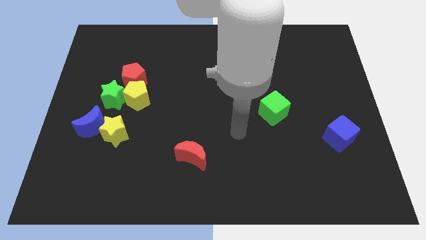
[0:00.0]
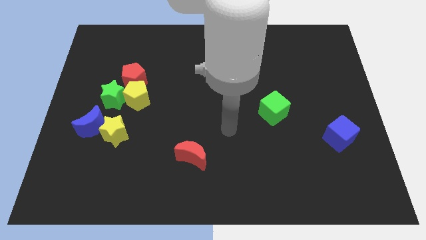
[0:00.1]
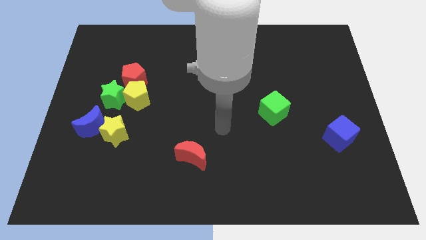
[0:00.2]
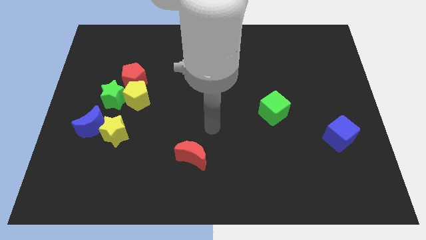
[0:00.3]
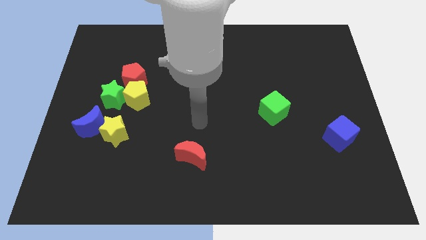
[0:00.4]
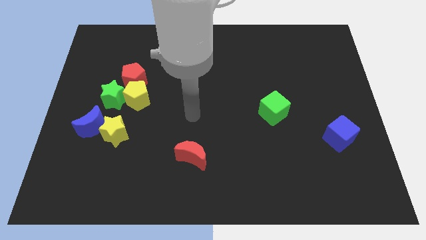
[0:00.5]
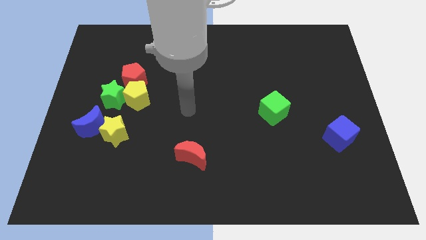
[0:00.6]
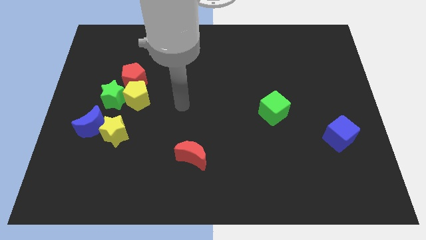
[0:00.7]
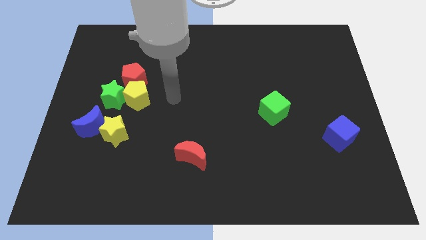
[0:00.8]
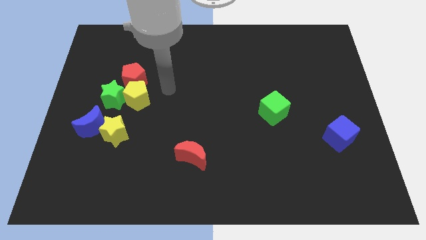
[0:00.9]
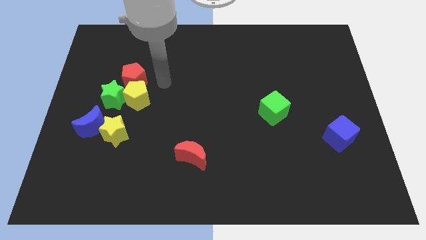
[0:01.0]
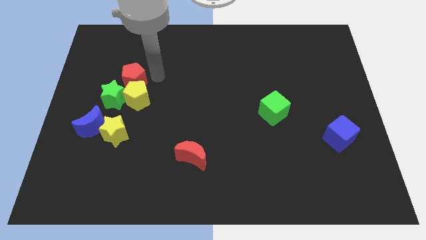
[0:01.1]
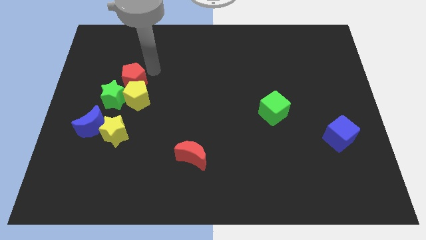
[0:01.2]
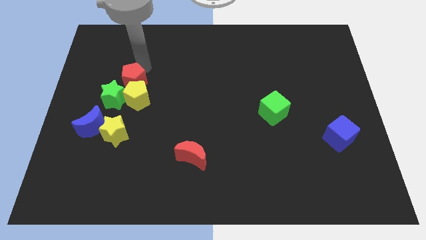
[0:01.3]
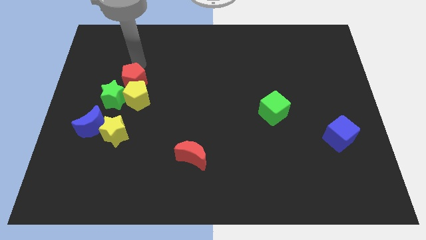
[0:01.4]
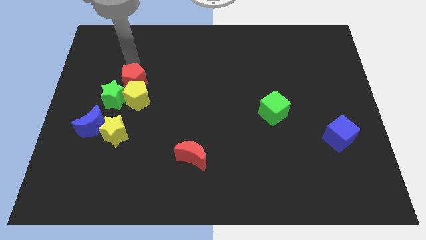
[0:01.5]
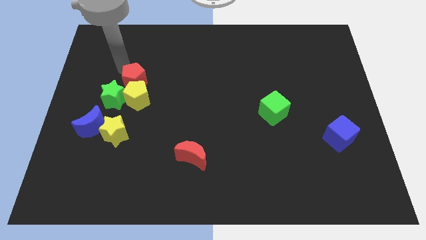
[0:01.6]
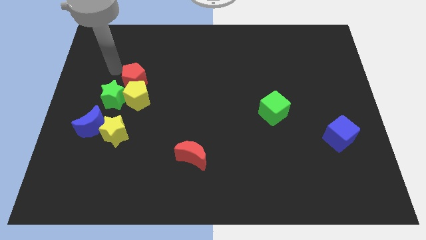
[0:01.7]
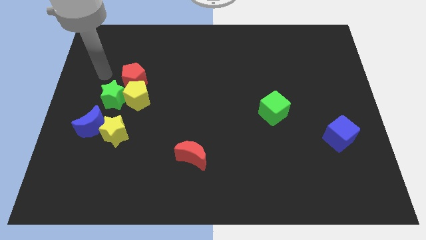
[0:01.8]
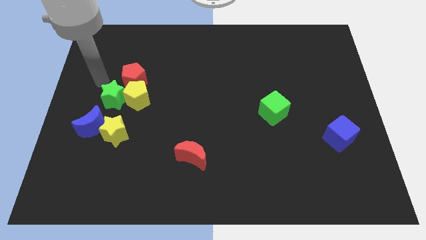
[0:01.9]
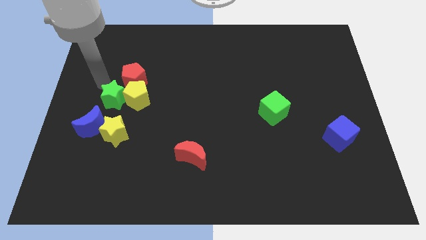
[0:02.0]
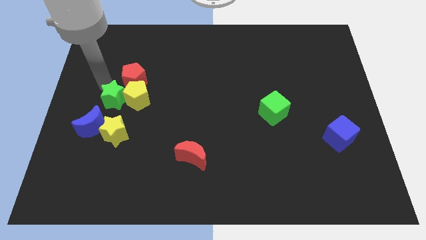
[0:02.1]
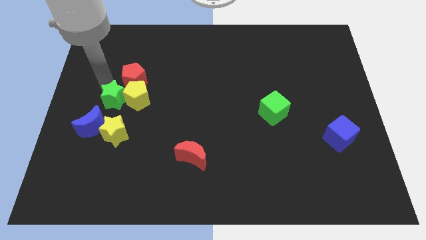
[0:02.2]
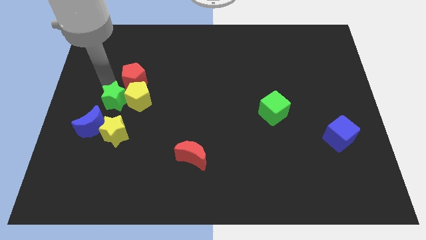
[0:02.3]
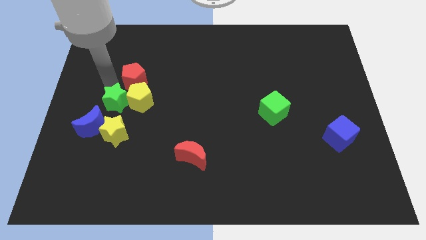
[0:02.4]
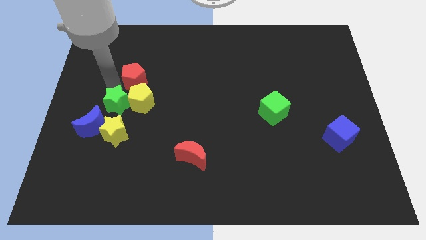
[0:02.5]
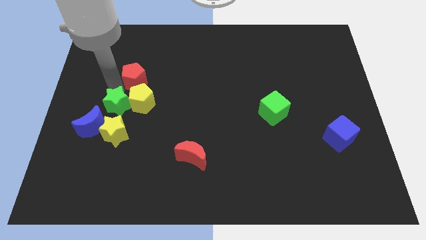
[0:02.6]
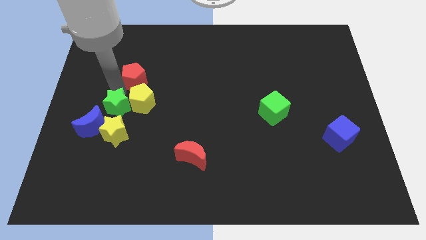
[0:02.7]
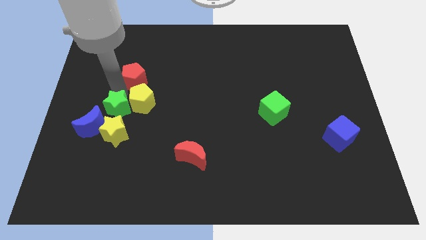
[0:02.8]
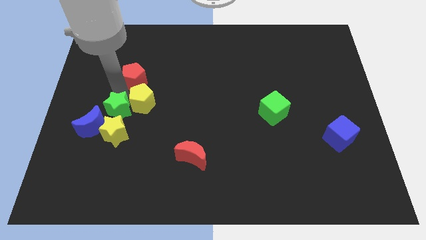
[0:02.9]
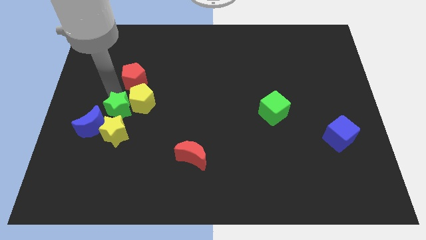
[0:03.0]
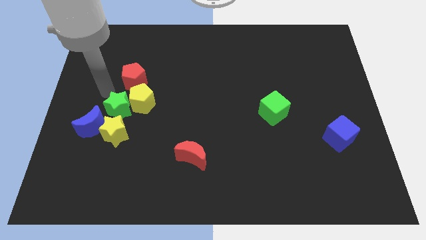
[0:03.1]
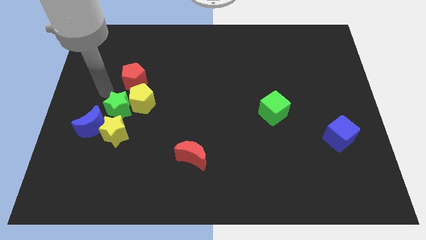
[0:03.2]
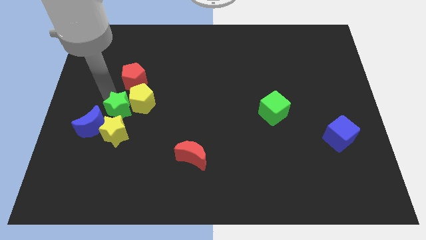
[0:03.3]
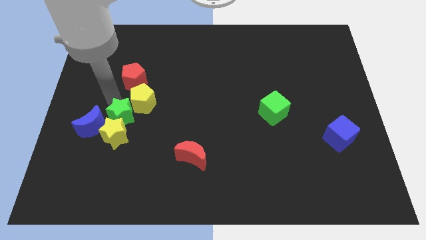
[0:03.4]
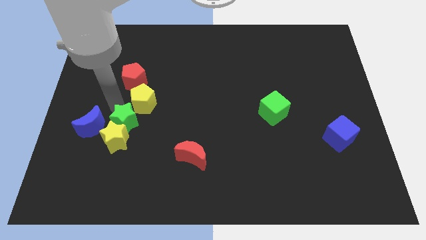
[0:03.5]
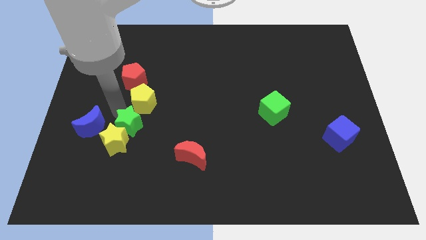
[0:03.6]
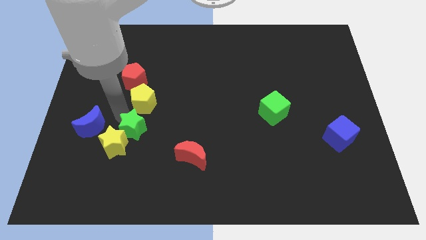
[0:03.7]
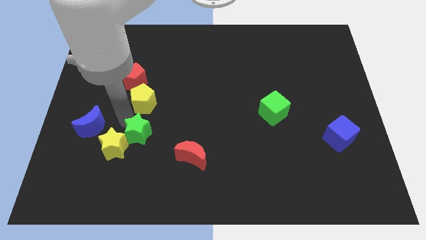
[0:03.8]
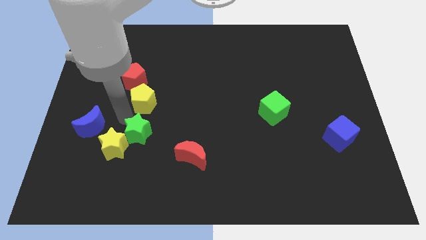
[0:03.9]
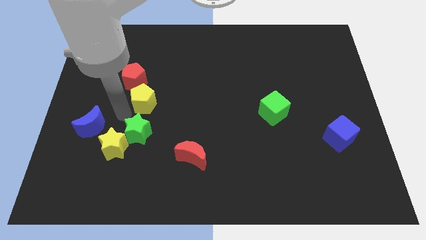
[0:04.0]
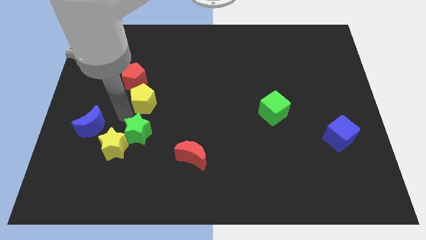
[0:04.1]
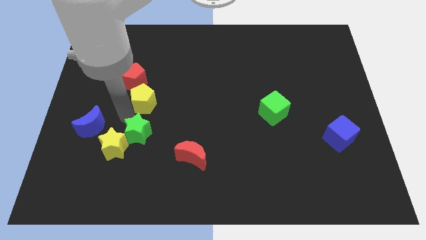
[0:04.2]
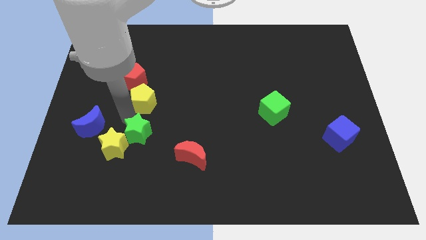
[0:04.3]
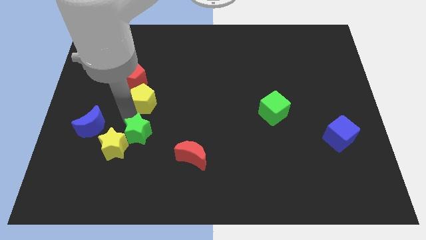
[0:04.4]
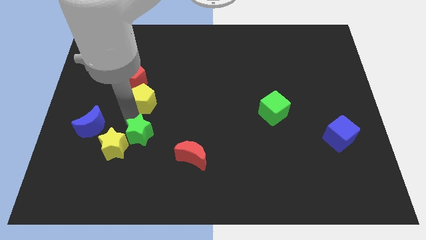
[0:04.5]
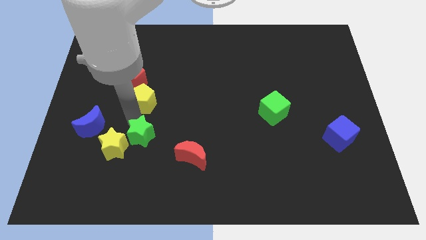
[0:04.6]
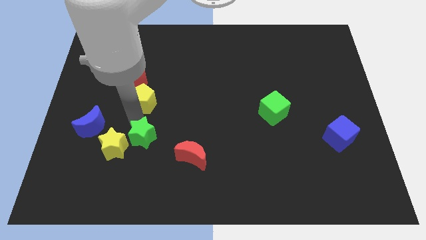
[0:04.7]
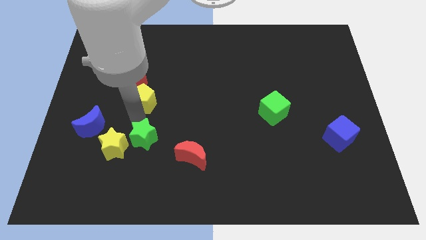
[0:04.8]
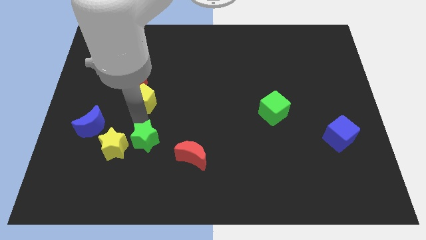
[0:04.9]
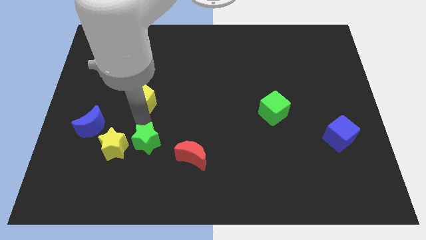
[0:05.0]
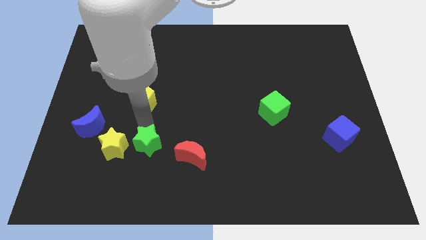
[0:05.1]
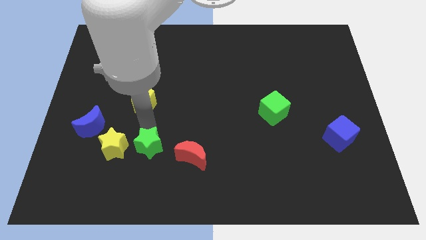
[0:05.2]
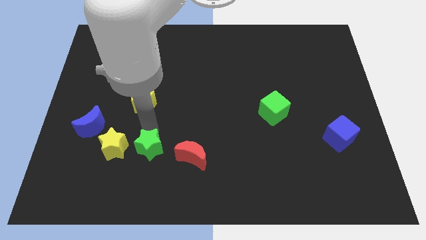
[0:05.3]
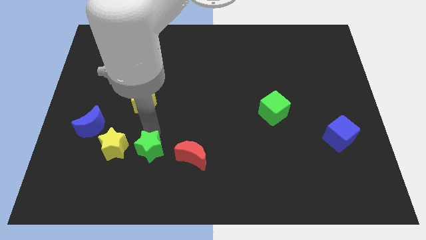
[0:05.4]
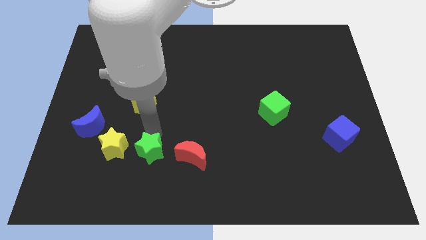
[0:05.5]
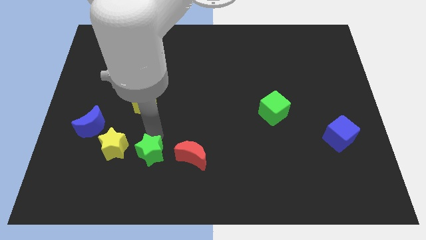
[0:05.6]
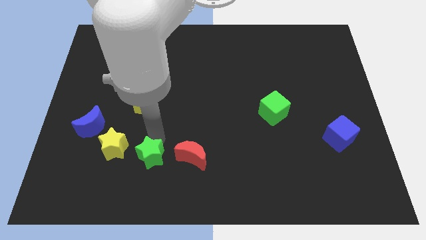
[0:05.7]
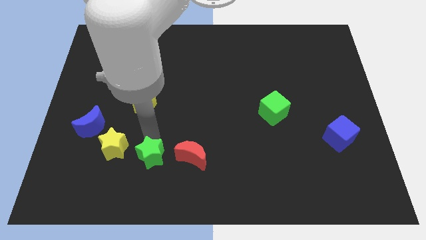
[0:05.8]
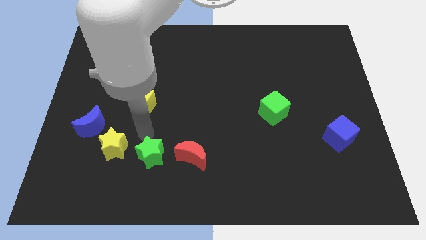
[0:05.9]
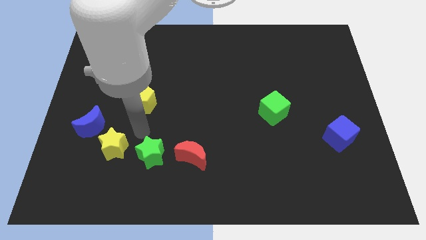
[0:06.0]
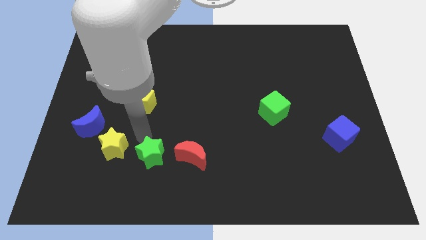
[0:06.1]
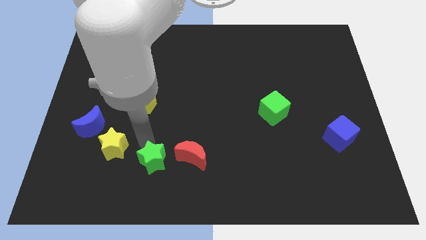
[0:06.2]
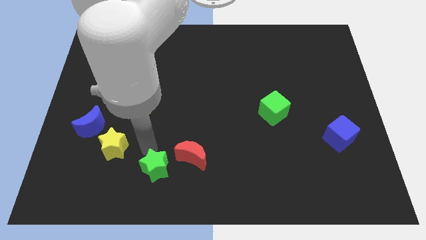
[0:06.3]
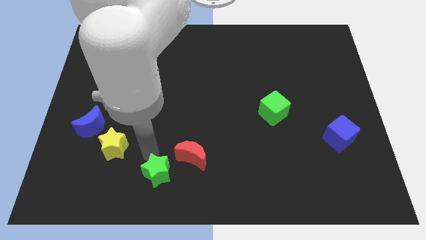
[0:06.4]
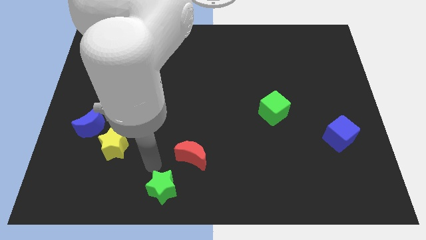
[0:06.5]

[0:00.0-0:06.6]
slide the green star to the bottom side

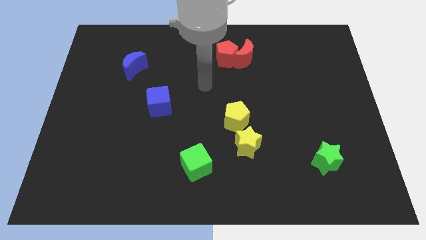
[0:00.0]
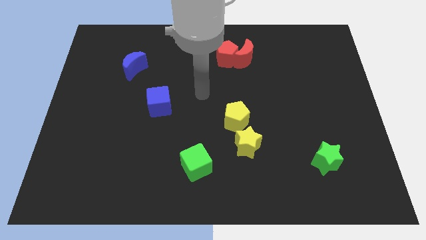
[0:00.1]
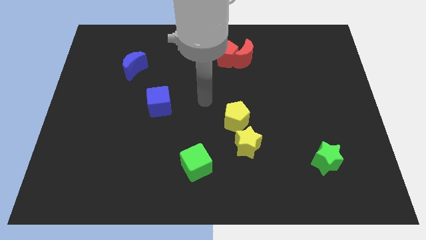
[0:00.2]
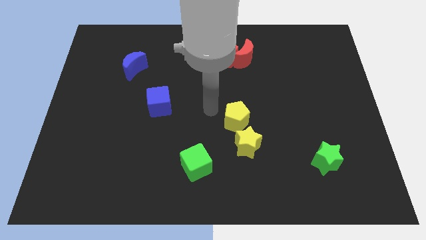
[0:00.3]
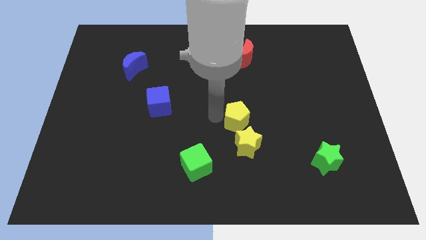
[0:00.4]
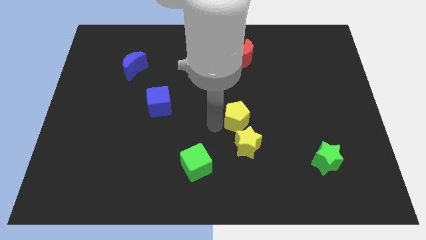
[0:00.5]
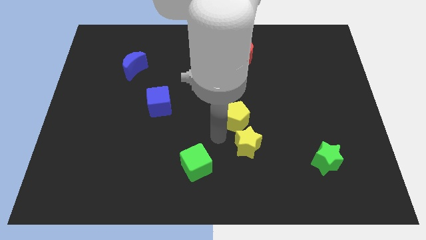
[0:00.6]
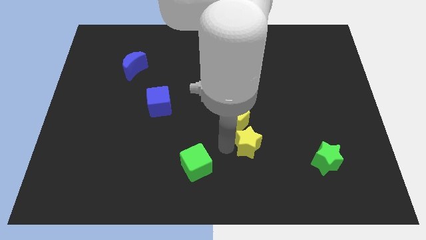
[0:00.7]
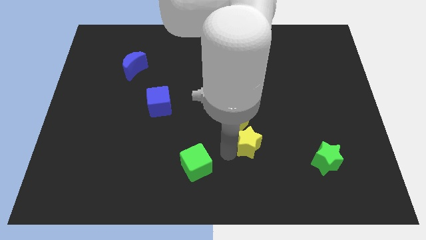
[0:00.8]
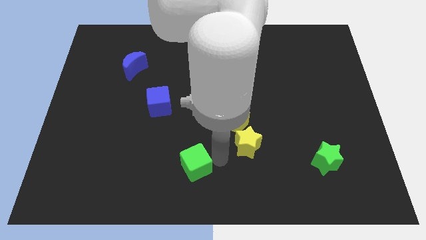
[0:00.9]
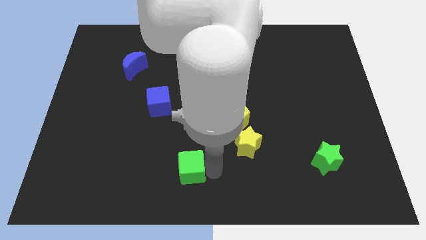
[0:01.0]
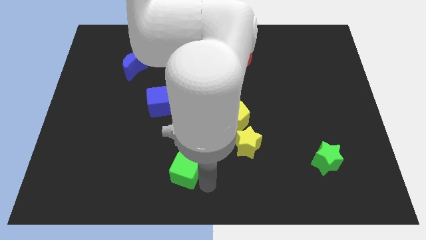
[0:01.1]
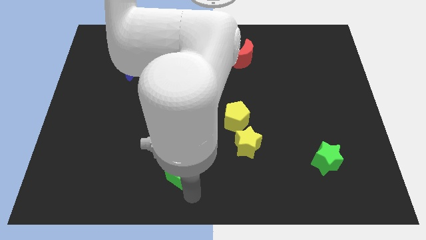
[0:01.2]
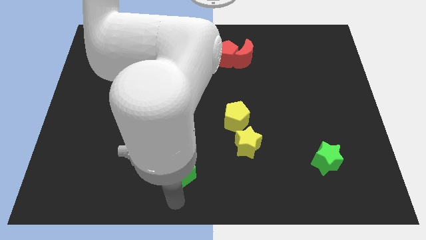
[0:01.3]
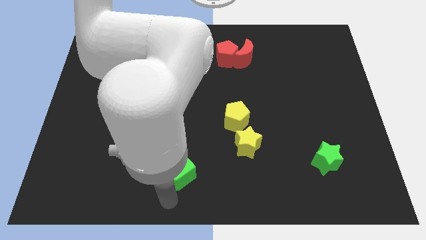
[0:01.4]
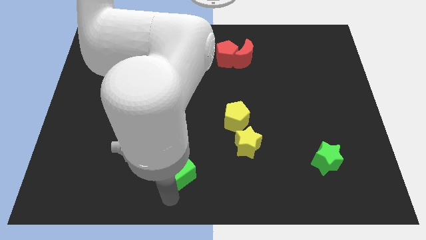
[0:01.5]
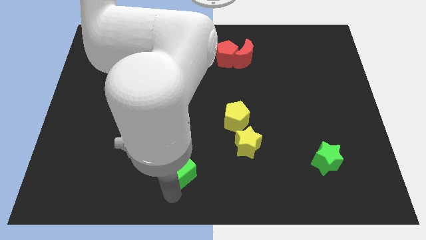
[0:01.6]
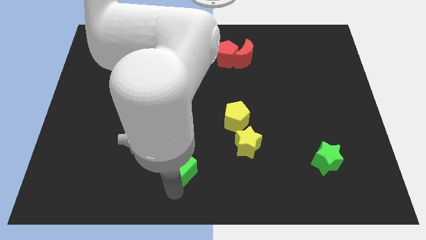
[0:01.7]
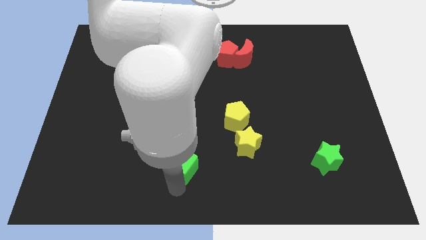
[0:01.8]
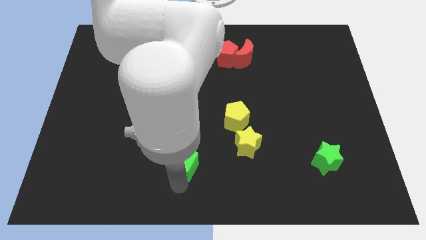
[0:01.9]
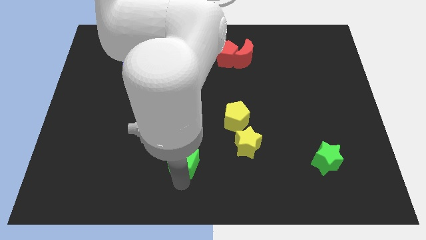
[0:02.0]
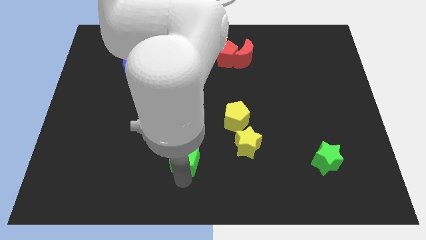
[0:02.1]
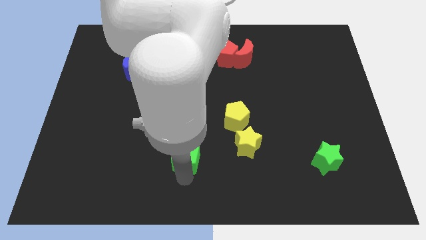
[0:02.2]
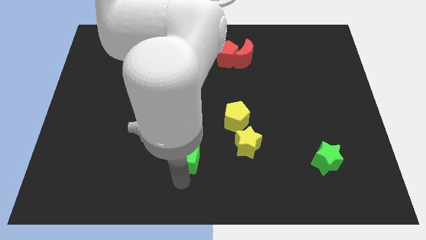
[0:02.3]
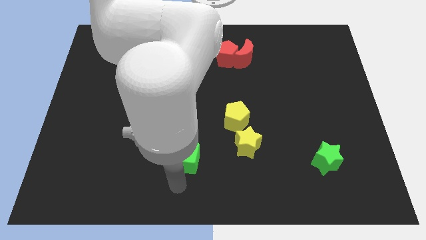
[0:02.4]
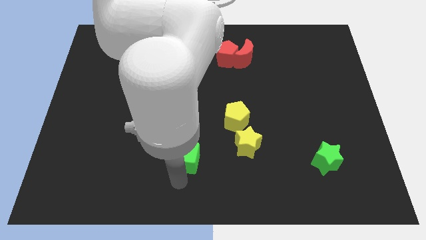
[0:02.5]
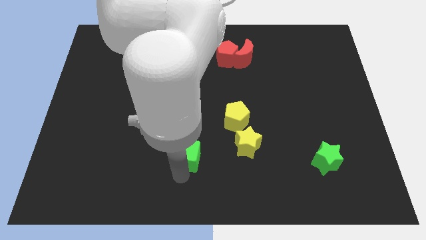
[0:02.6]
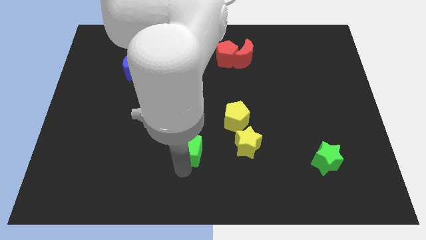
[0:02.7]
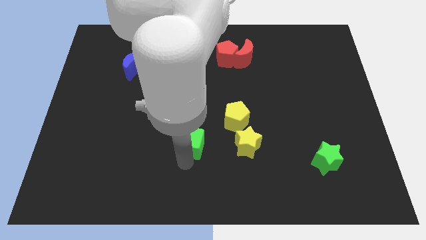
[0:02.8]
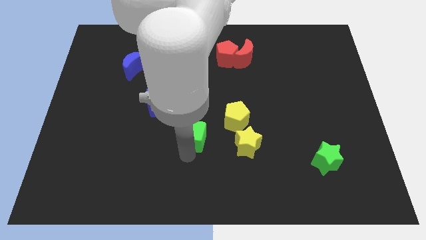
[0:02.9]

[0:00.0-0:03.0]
move the green cube to the middle of the board
